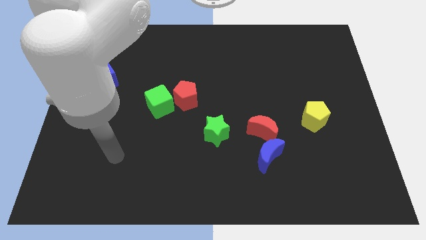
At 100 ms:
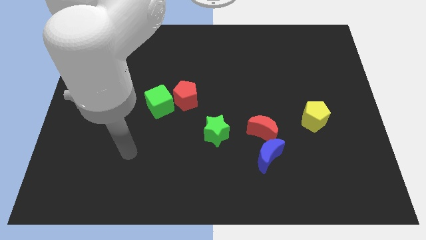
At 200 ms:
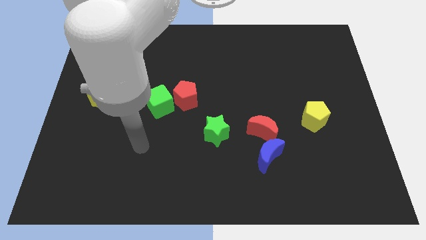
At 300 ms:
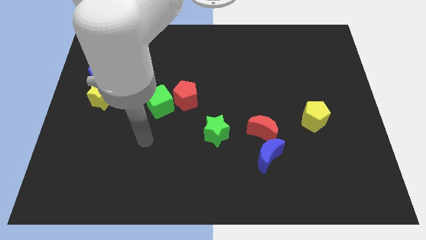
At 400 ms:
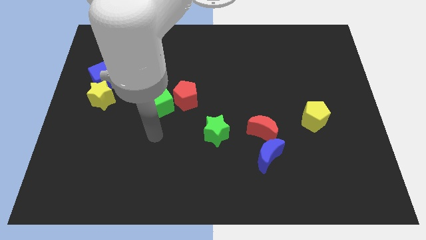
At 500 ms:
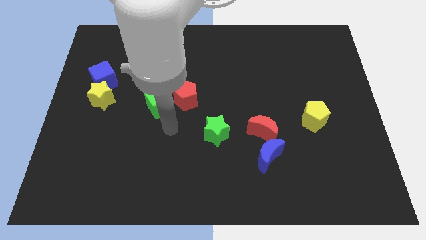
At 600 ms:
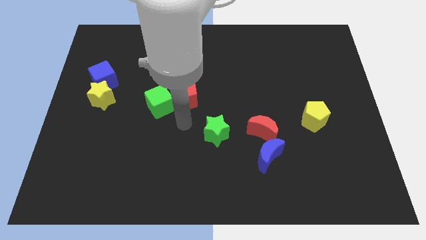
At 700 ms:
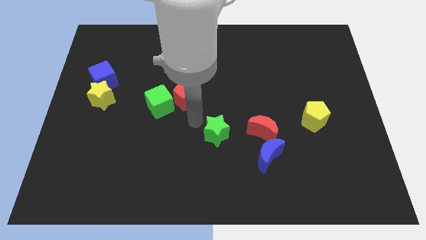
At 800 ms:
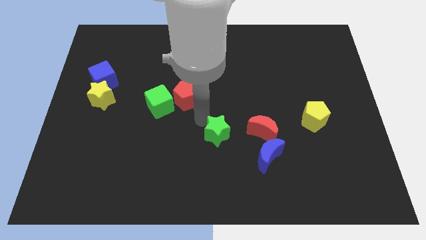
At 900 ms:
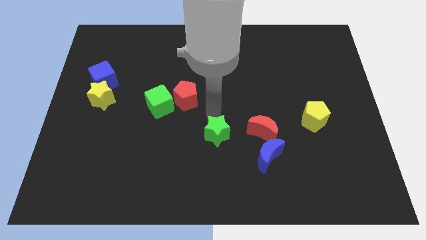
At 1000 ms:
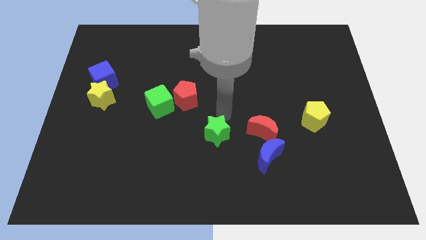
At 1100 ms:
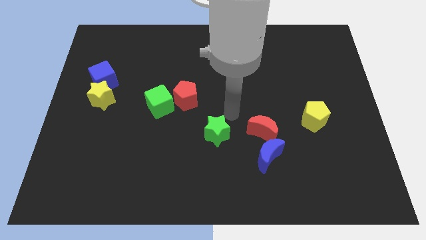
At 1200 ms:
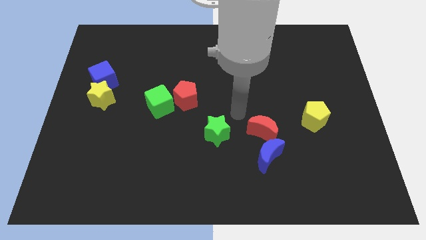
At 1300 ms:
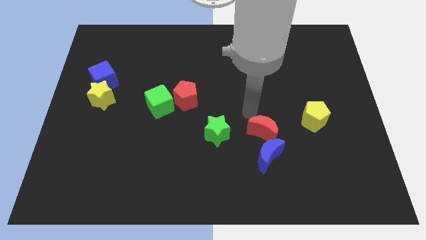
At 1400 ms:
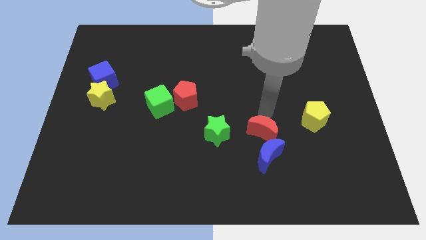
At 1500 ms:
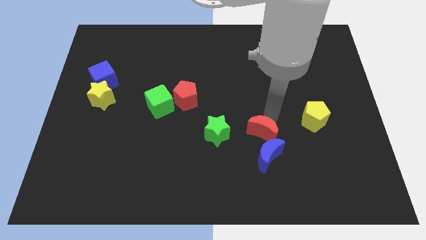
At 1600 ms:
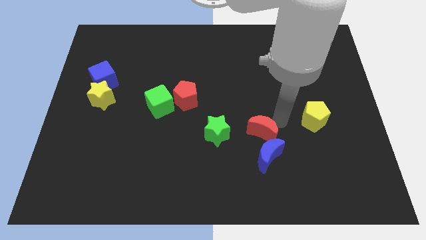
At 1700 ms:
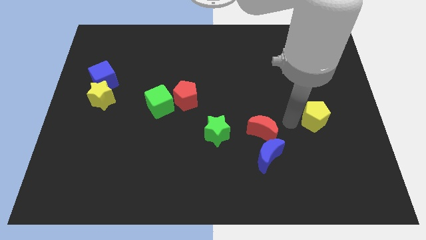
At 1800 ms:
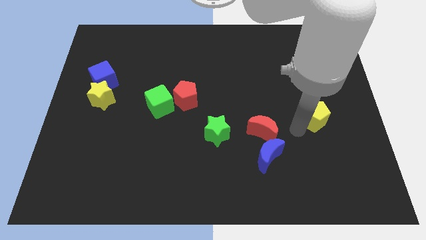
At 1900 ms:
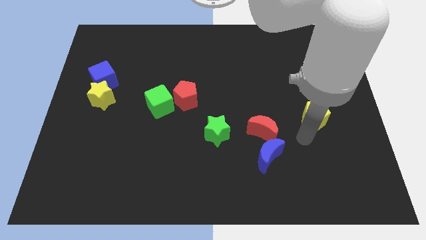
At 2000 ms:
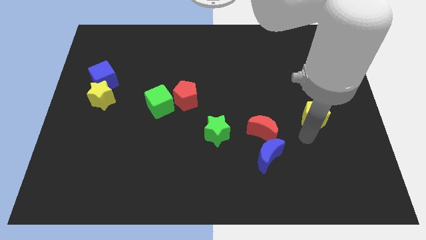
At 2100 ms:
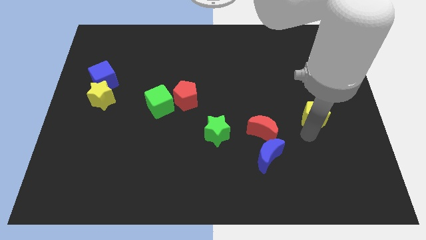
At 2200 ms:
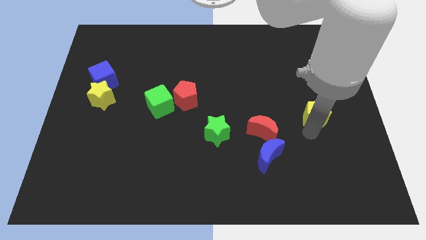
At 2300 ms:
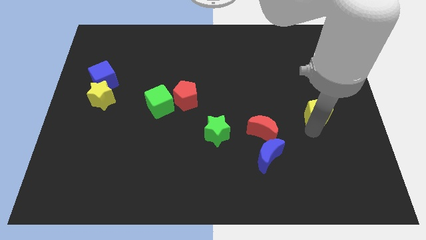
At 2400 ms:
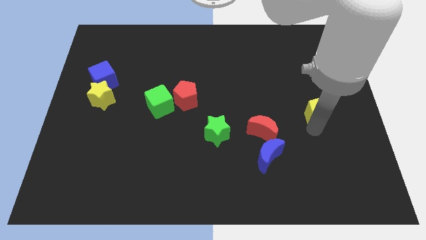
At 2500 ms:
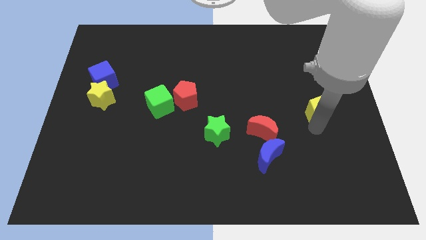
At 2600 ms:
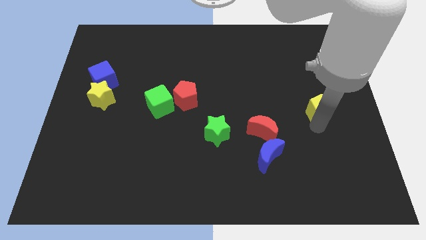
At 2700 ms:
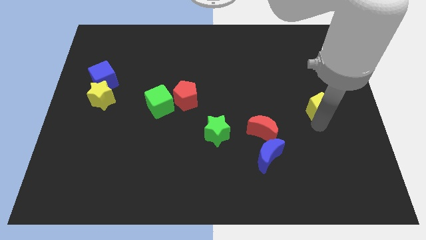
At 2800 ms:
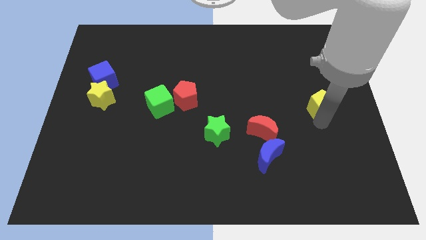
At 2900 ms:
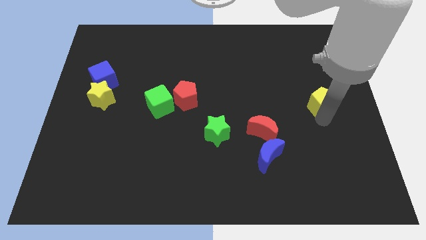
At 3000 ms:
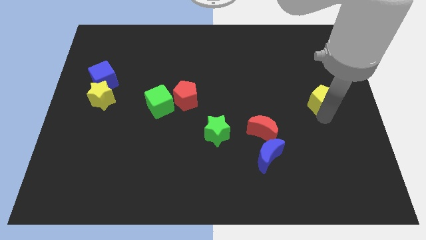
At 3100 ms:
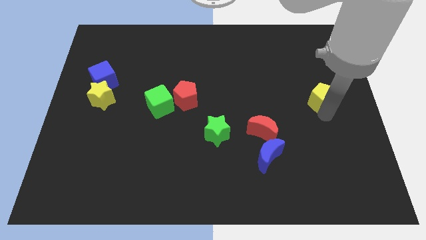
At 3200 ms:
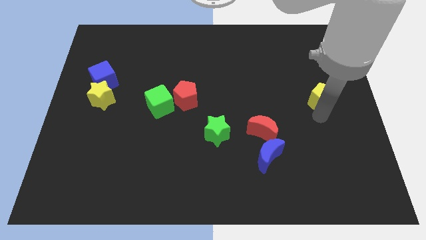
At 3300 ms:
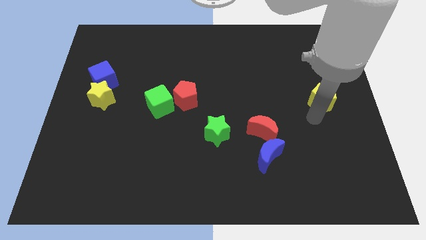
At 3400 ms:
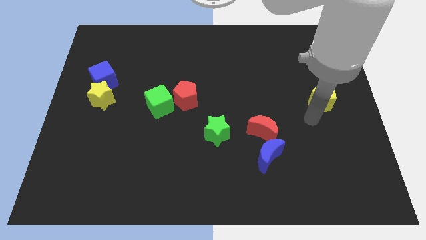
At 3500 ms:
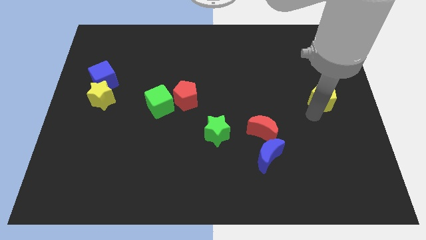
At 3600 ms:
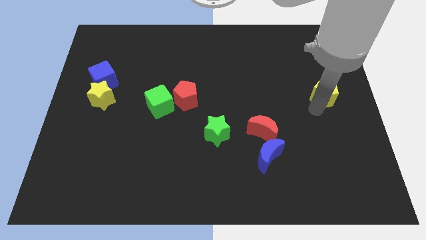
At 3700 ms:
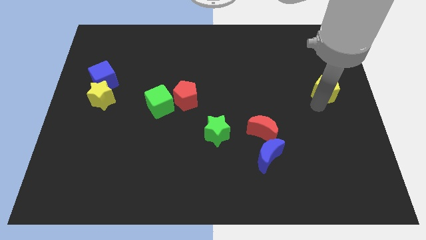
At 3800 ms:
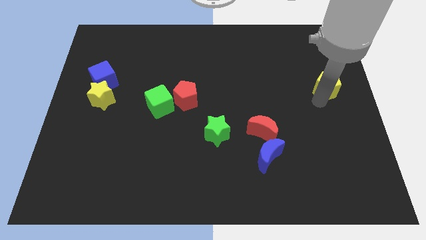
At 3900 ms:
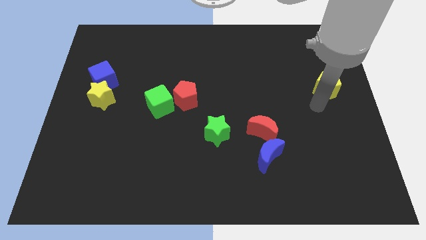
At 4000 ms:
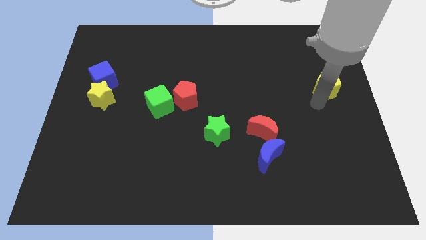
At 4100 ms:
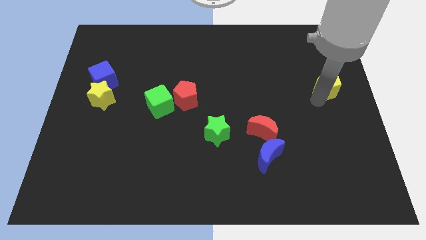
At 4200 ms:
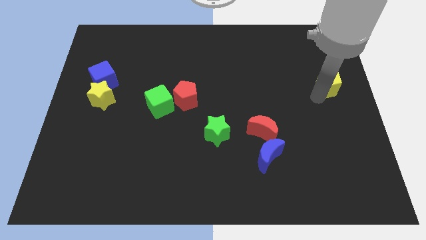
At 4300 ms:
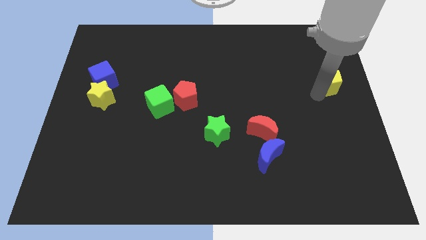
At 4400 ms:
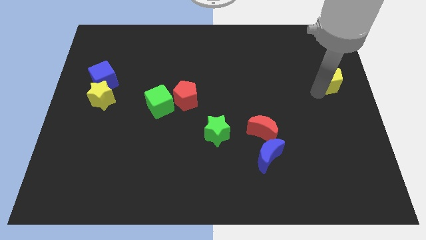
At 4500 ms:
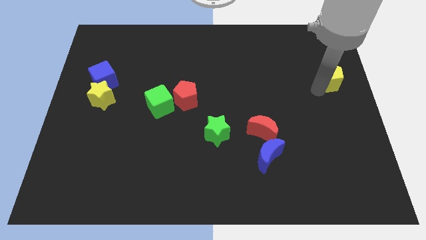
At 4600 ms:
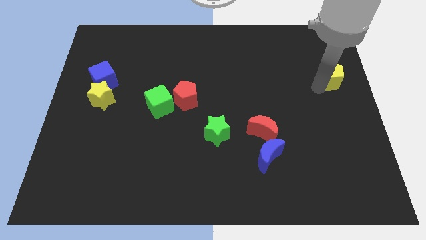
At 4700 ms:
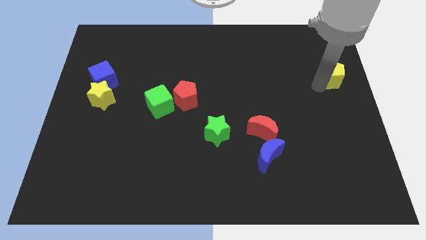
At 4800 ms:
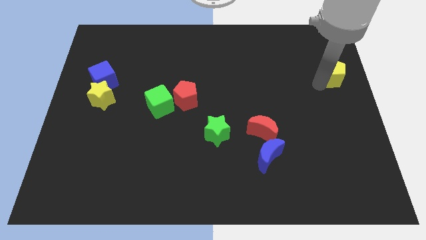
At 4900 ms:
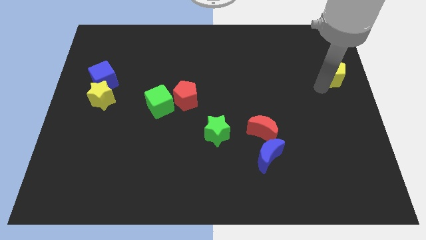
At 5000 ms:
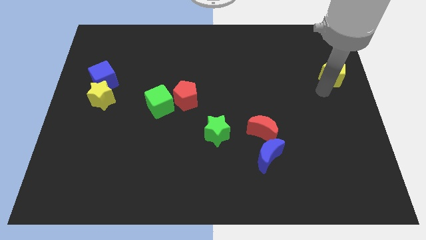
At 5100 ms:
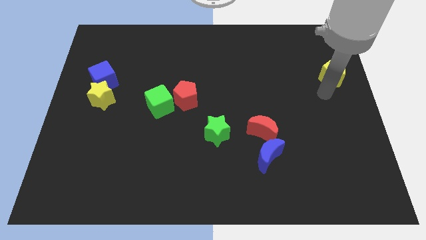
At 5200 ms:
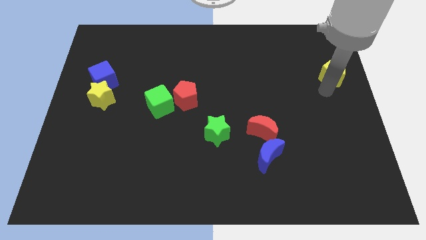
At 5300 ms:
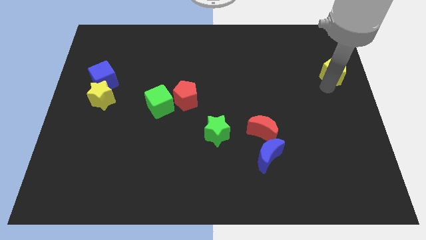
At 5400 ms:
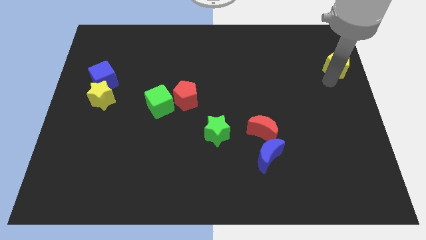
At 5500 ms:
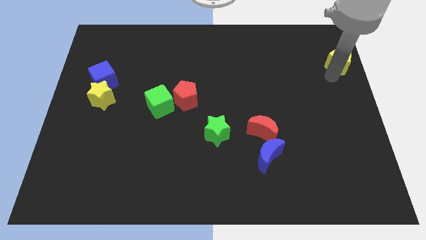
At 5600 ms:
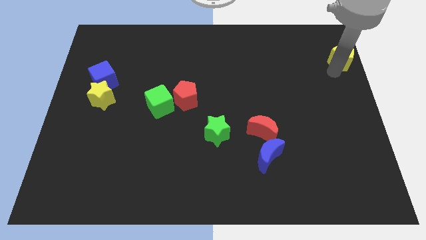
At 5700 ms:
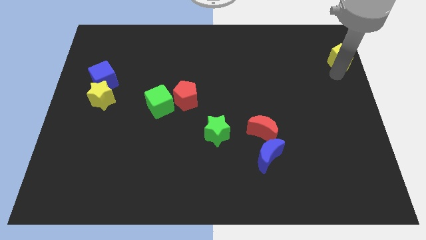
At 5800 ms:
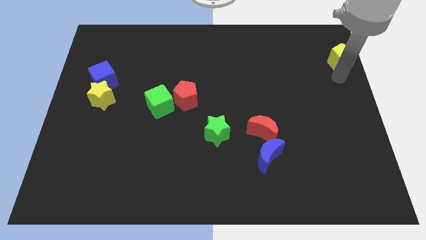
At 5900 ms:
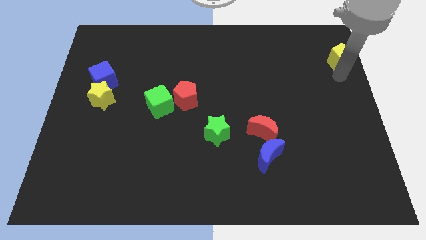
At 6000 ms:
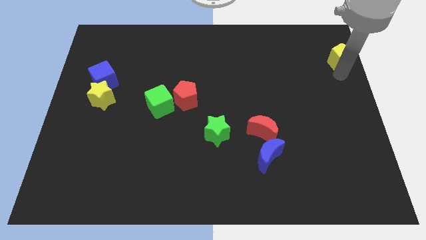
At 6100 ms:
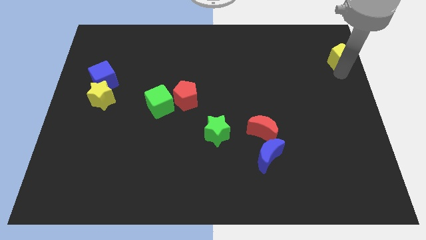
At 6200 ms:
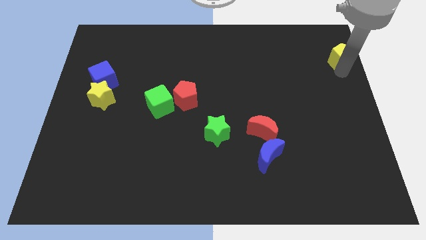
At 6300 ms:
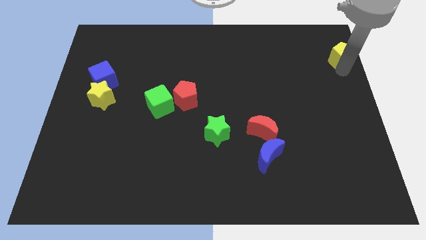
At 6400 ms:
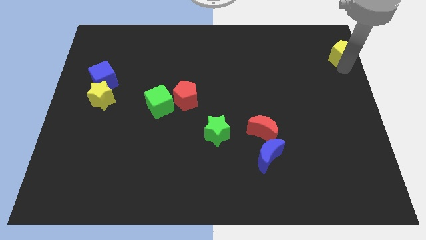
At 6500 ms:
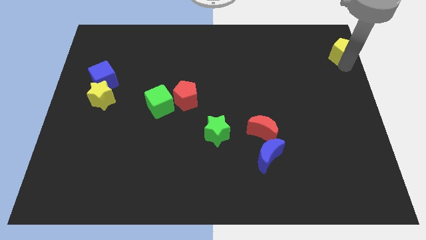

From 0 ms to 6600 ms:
put the yellow pentagon to the upper right corner
